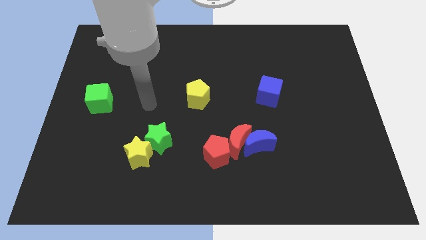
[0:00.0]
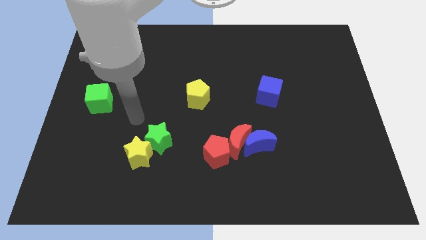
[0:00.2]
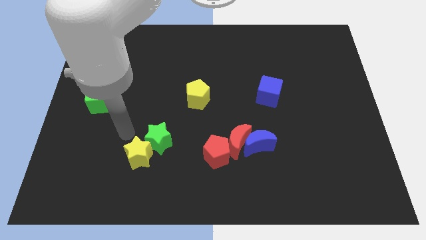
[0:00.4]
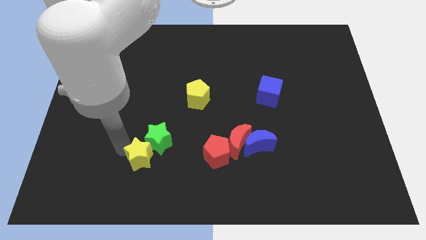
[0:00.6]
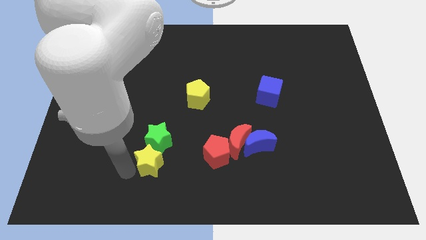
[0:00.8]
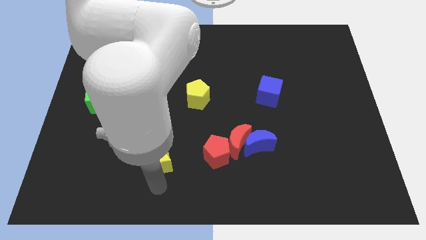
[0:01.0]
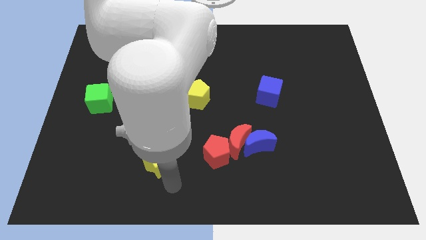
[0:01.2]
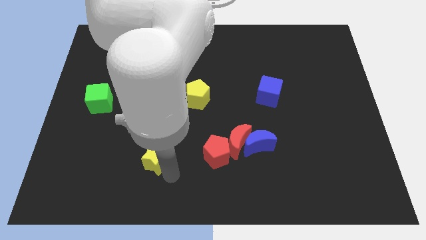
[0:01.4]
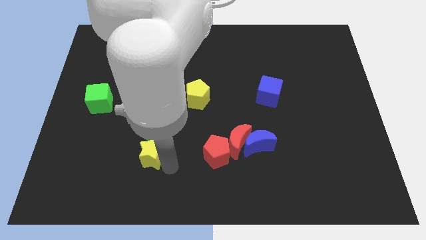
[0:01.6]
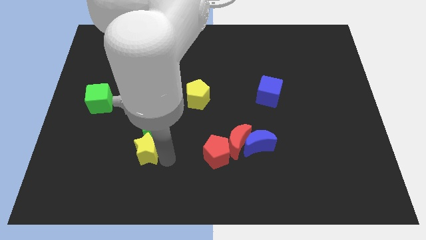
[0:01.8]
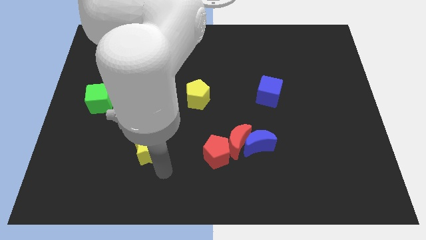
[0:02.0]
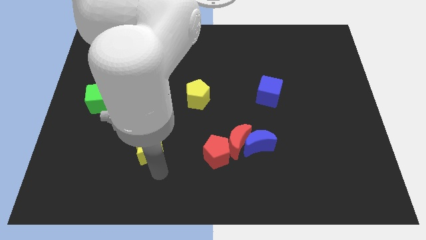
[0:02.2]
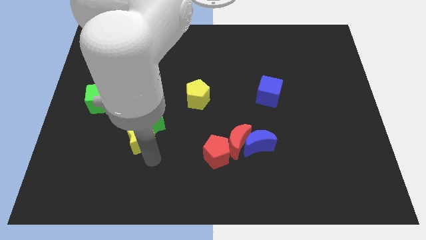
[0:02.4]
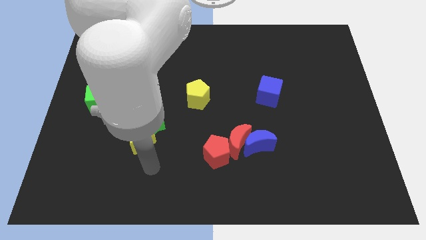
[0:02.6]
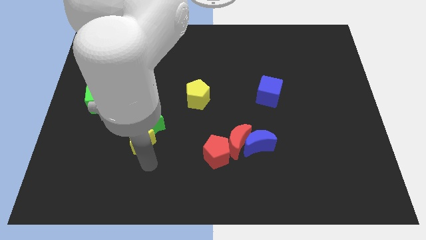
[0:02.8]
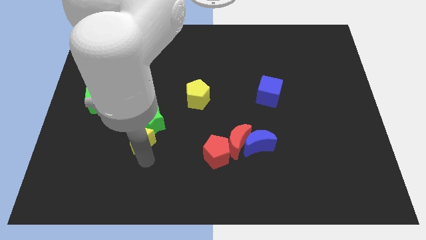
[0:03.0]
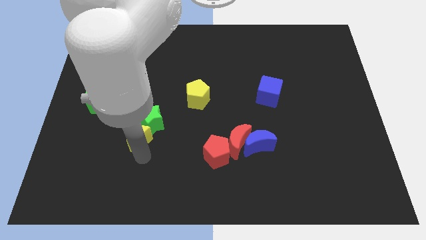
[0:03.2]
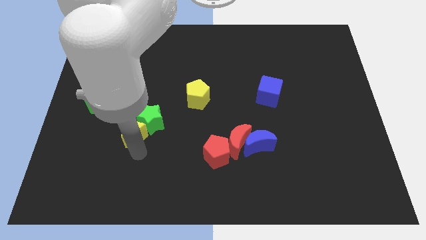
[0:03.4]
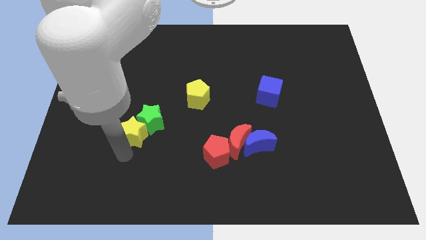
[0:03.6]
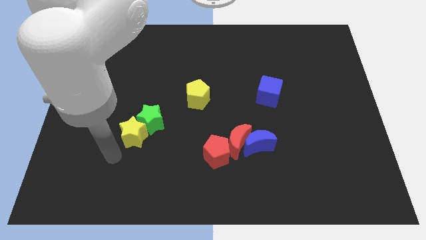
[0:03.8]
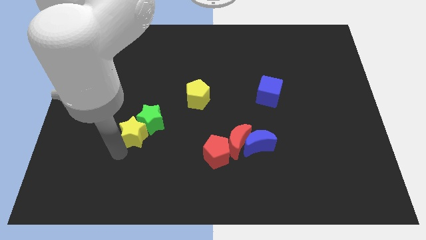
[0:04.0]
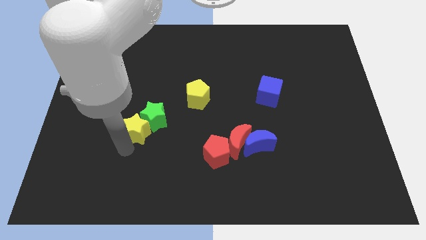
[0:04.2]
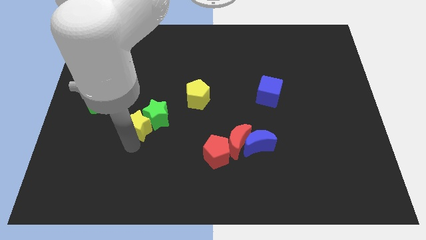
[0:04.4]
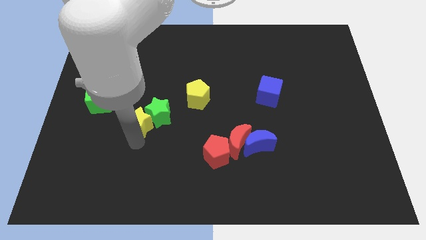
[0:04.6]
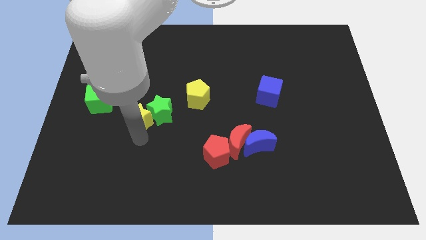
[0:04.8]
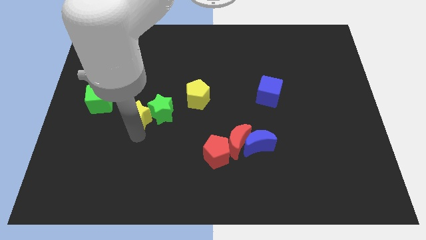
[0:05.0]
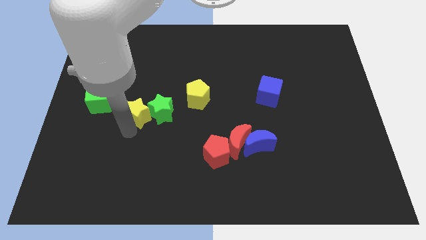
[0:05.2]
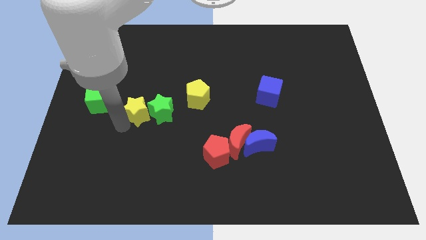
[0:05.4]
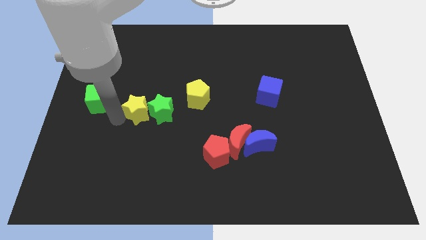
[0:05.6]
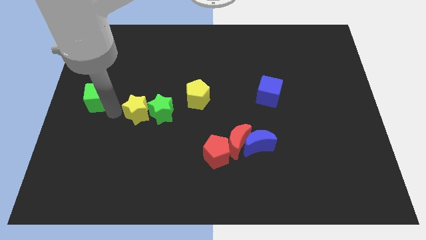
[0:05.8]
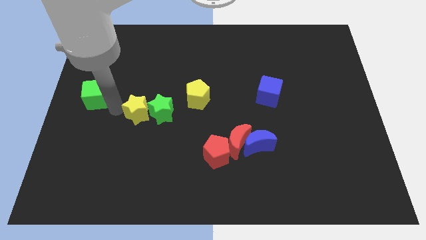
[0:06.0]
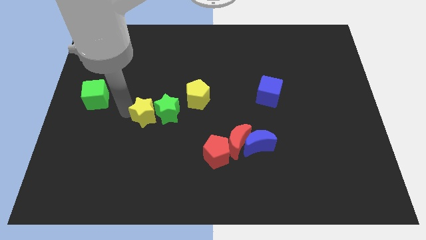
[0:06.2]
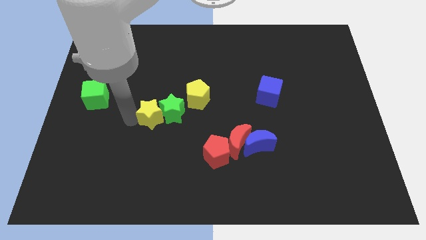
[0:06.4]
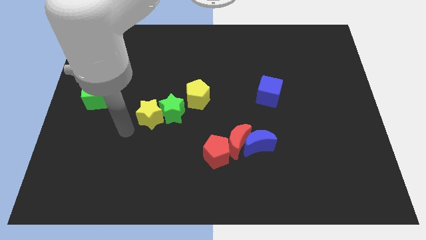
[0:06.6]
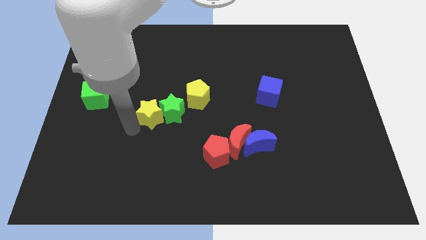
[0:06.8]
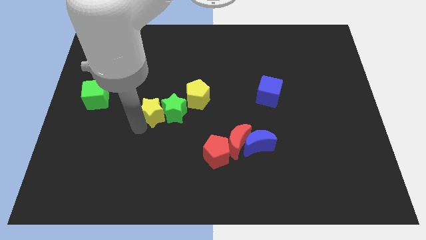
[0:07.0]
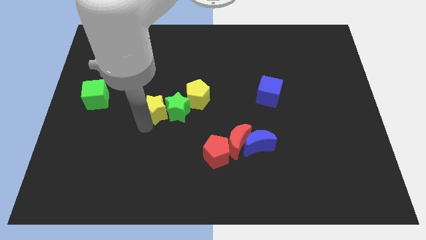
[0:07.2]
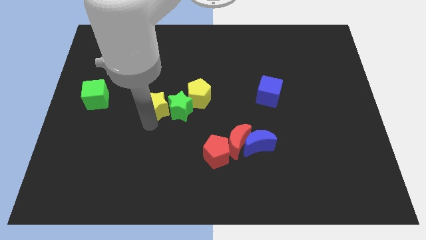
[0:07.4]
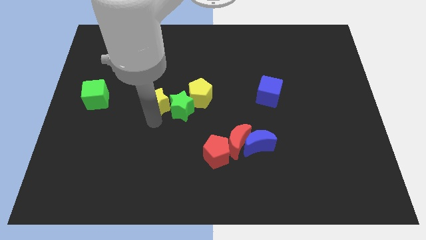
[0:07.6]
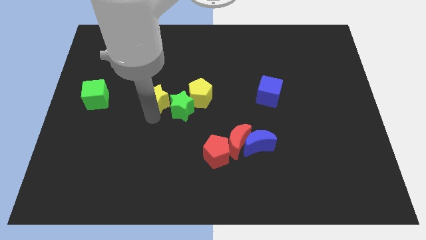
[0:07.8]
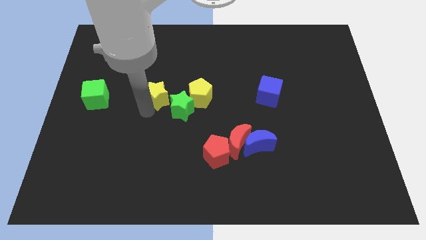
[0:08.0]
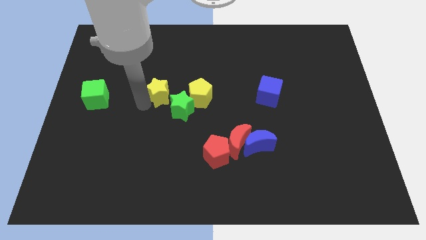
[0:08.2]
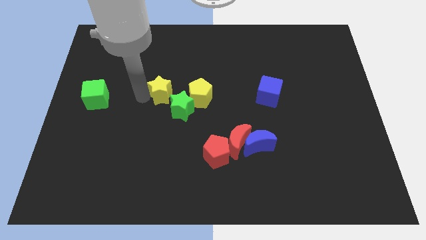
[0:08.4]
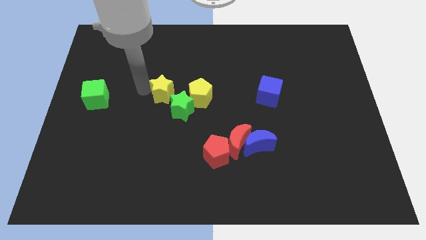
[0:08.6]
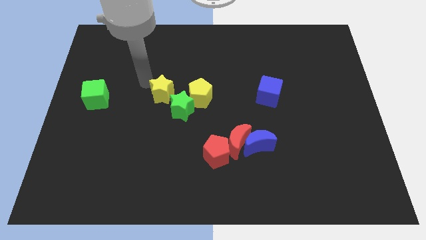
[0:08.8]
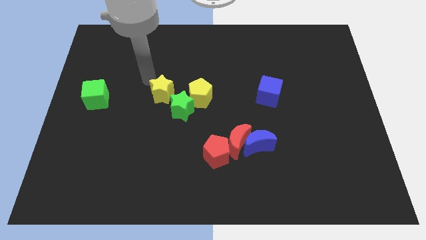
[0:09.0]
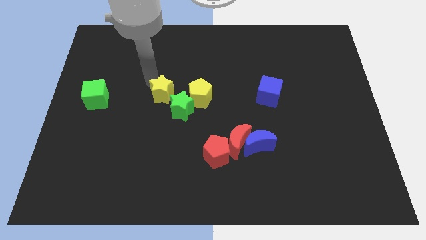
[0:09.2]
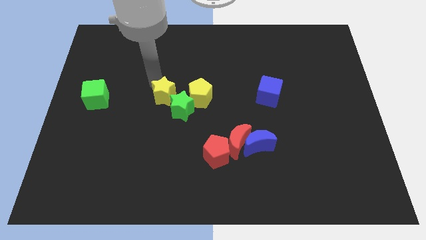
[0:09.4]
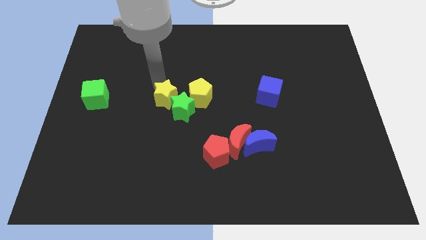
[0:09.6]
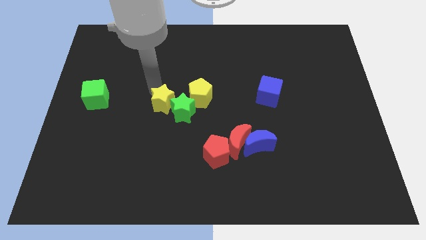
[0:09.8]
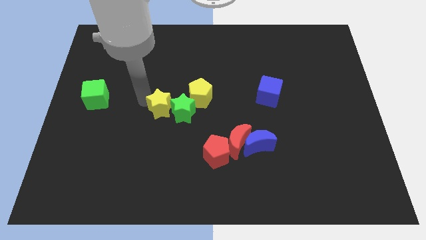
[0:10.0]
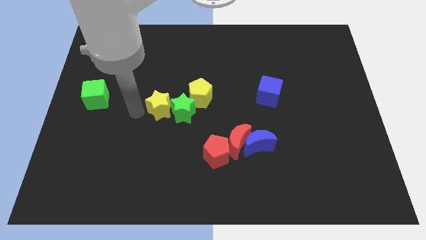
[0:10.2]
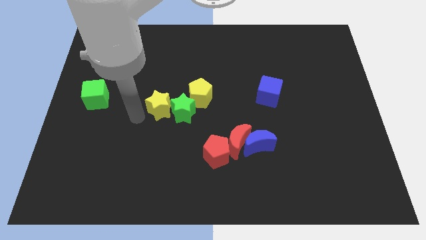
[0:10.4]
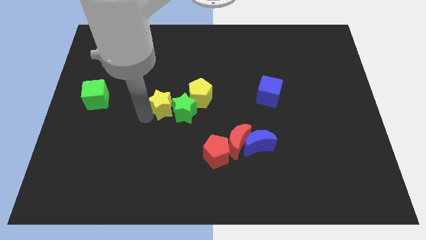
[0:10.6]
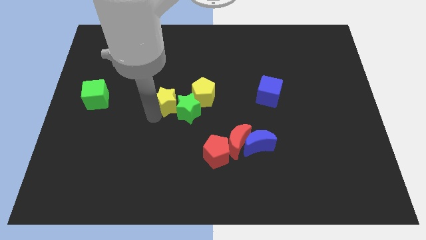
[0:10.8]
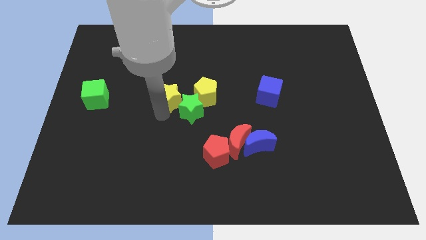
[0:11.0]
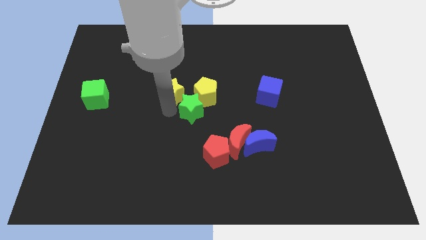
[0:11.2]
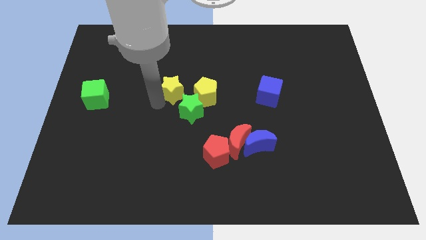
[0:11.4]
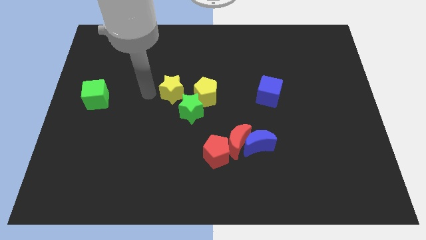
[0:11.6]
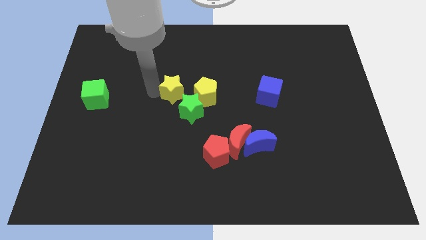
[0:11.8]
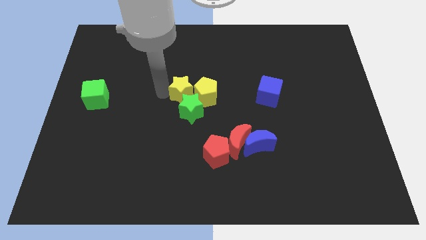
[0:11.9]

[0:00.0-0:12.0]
push the yellow star towards the yellow pentagon

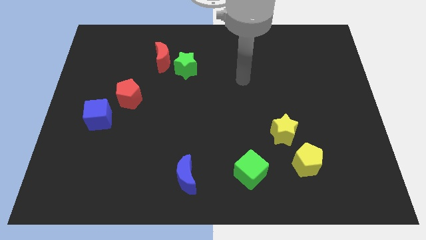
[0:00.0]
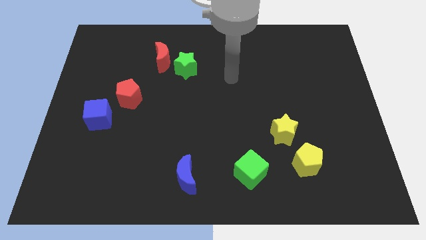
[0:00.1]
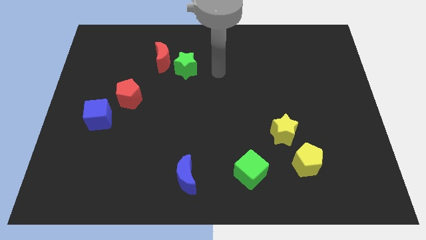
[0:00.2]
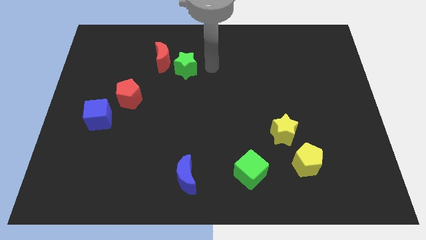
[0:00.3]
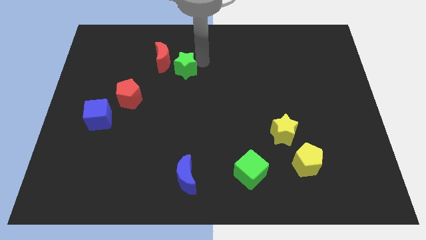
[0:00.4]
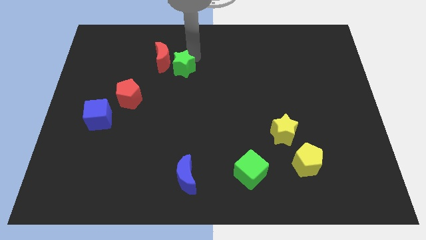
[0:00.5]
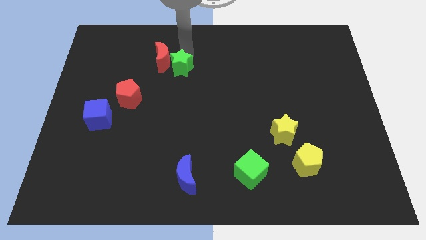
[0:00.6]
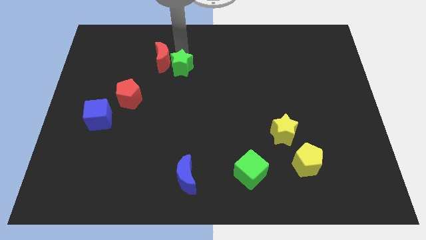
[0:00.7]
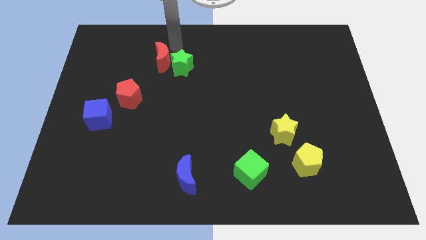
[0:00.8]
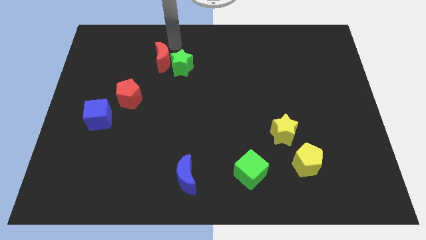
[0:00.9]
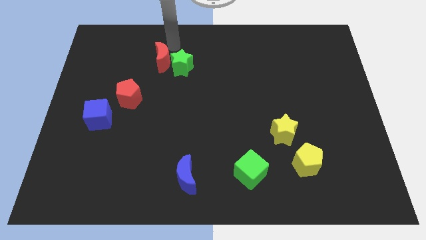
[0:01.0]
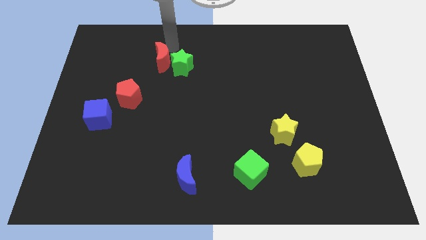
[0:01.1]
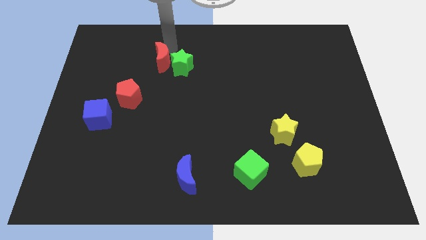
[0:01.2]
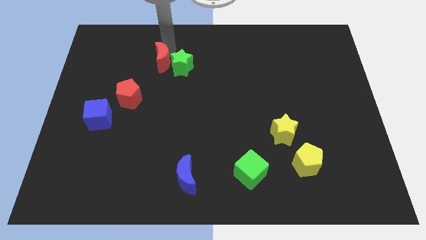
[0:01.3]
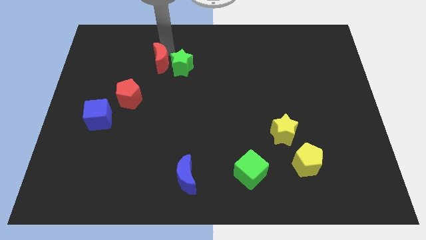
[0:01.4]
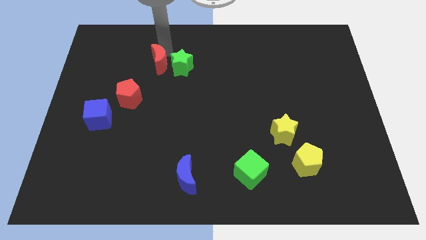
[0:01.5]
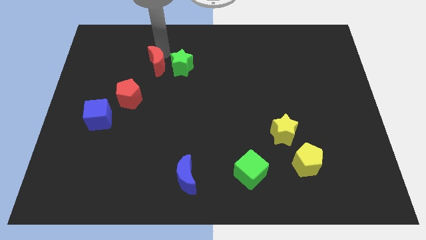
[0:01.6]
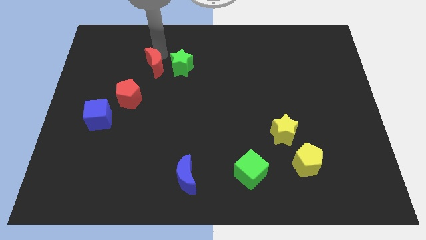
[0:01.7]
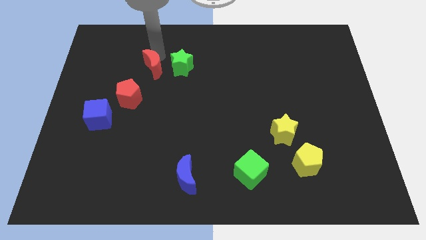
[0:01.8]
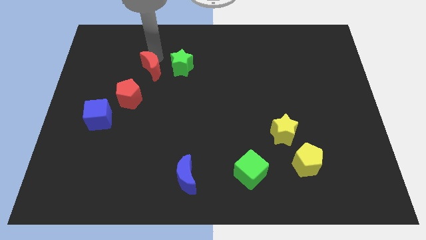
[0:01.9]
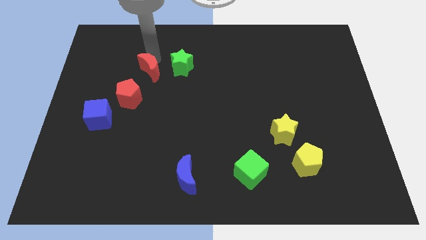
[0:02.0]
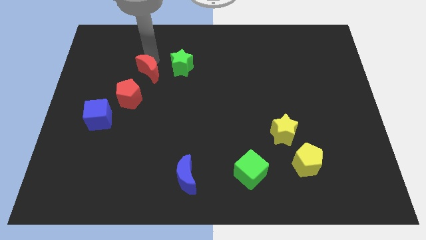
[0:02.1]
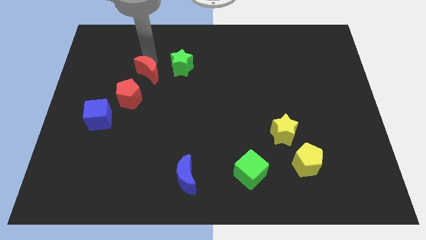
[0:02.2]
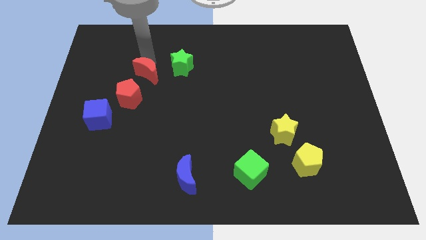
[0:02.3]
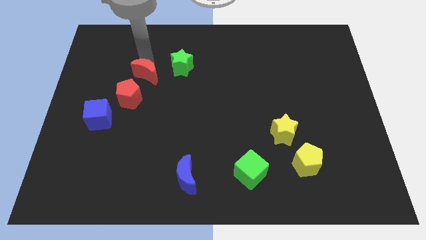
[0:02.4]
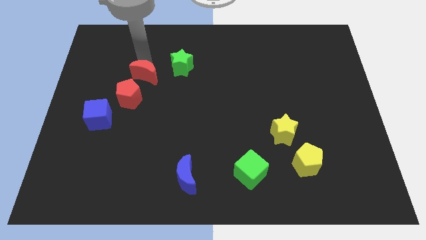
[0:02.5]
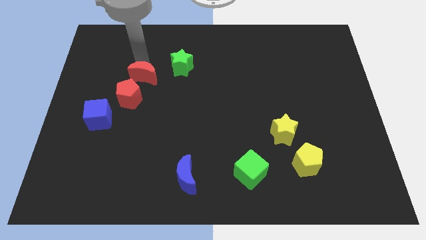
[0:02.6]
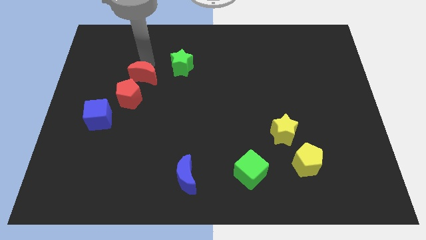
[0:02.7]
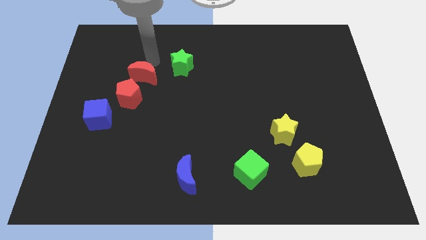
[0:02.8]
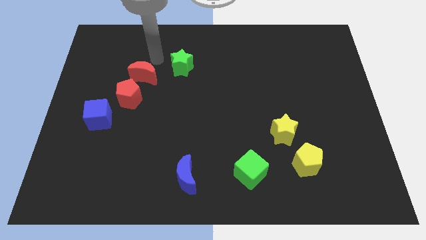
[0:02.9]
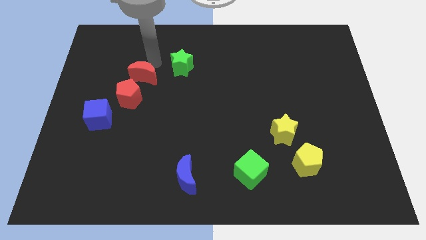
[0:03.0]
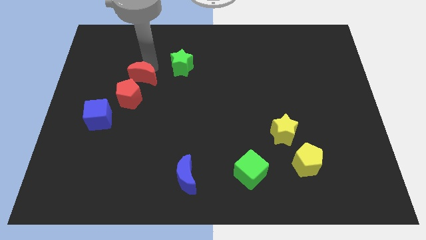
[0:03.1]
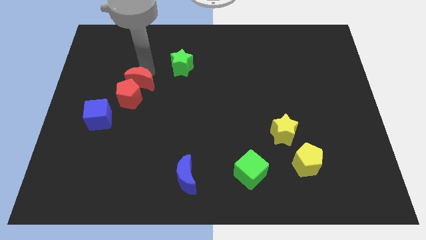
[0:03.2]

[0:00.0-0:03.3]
move the red moon next to the red pentagon
